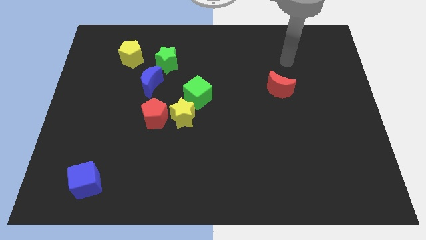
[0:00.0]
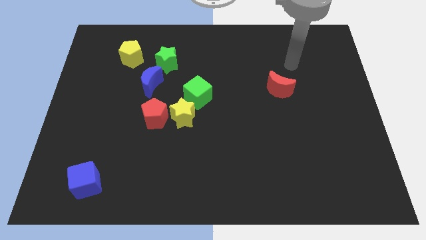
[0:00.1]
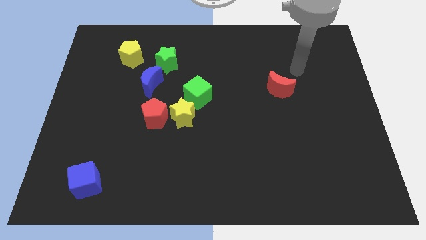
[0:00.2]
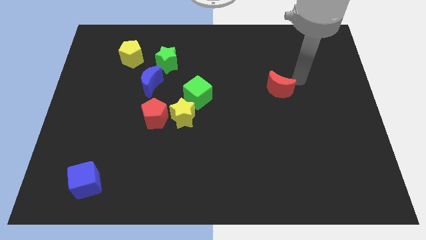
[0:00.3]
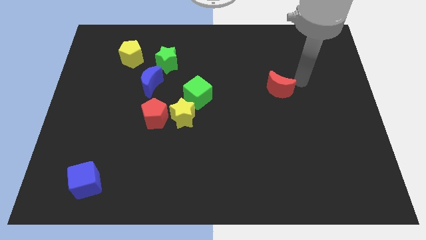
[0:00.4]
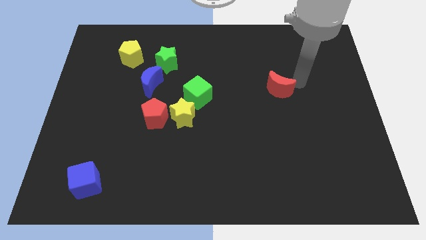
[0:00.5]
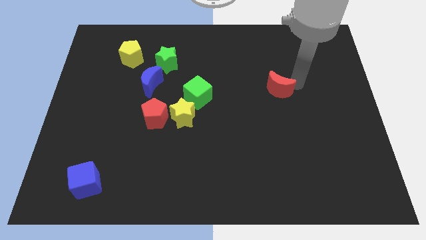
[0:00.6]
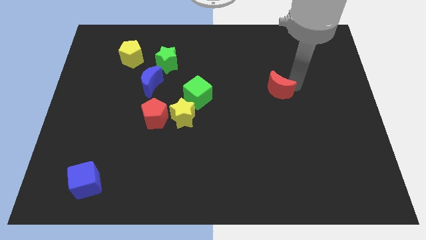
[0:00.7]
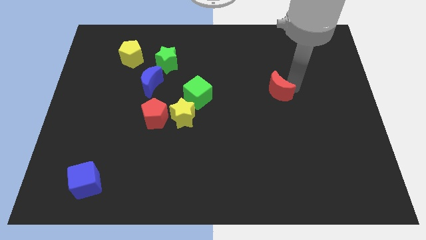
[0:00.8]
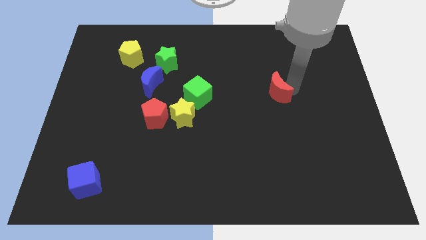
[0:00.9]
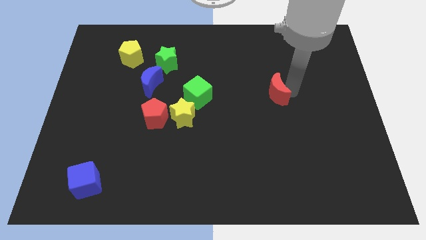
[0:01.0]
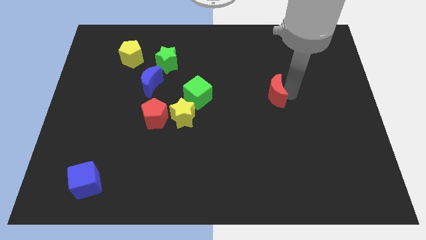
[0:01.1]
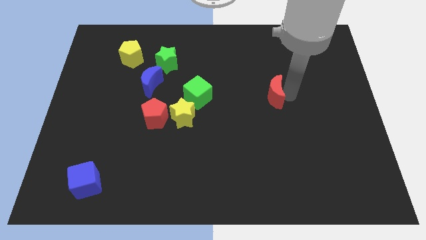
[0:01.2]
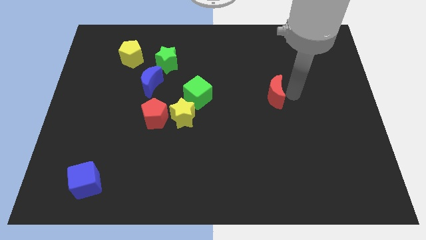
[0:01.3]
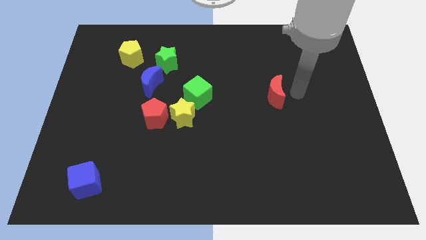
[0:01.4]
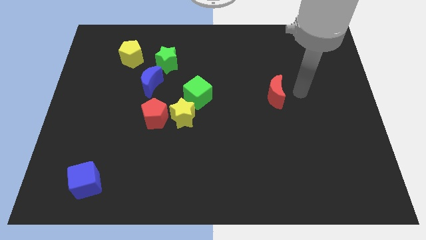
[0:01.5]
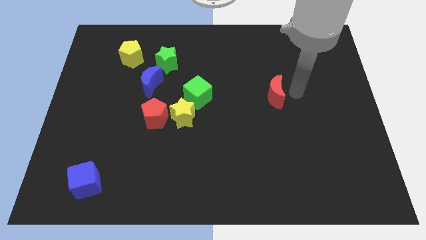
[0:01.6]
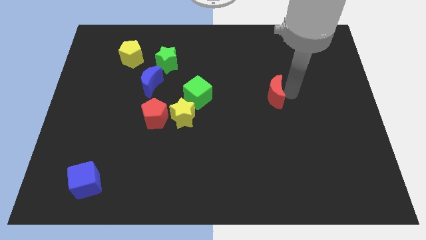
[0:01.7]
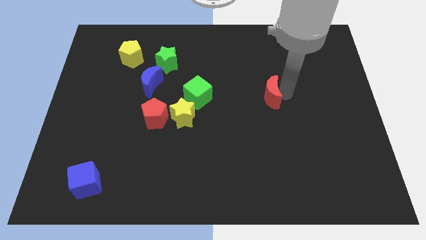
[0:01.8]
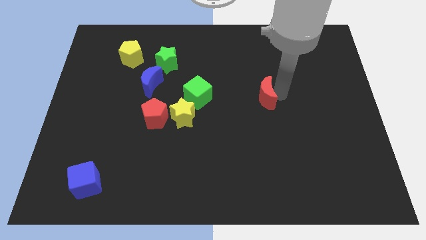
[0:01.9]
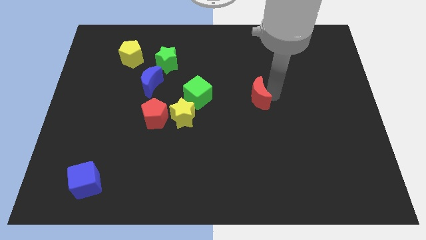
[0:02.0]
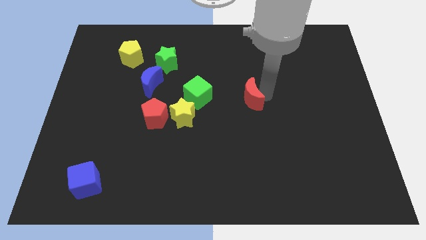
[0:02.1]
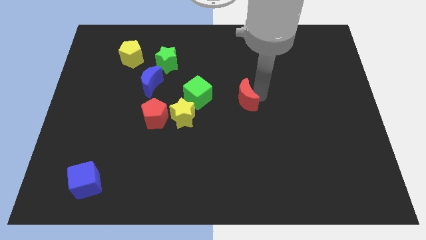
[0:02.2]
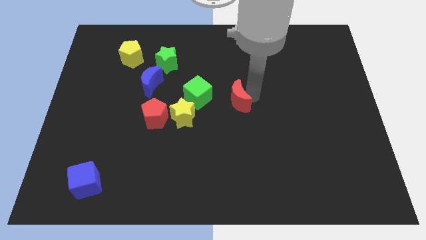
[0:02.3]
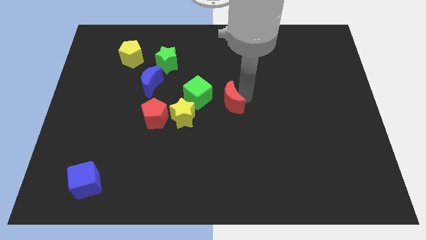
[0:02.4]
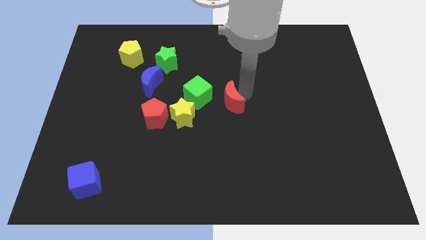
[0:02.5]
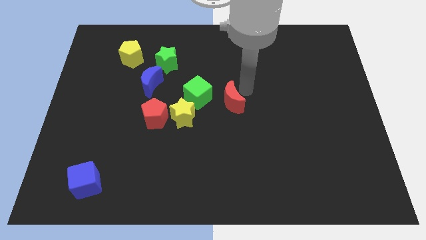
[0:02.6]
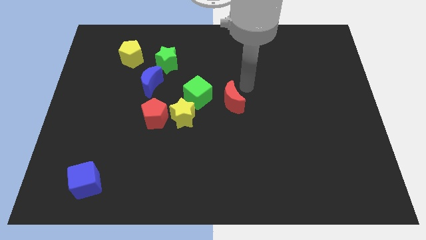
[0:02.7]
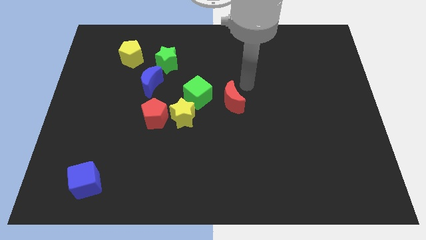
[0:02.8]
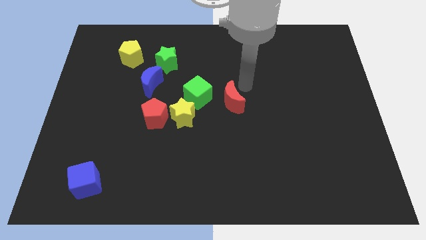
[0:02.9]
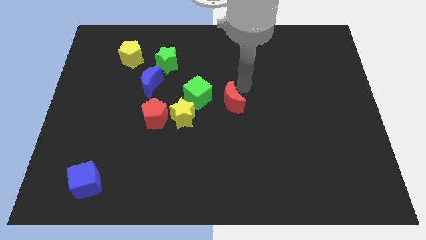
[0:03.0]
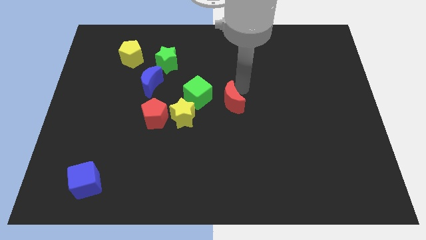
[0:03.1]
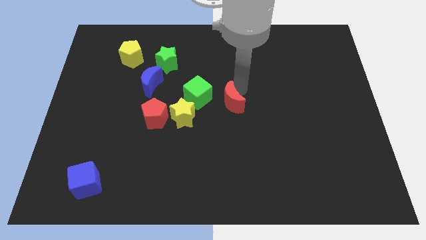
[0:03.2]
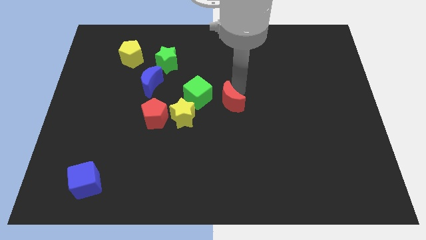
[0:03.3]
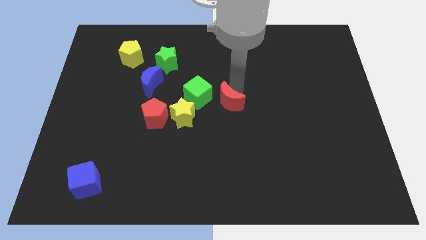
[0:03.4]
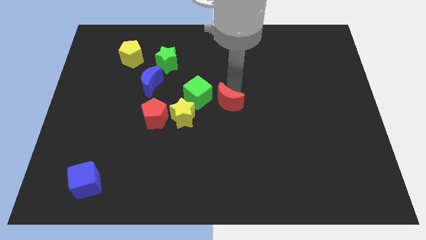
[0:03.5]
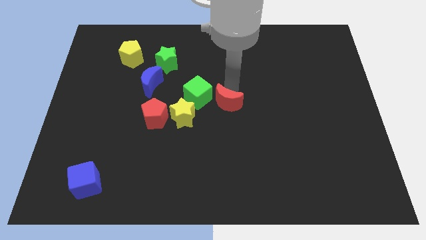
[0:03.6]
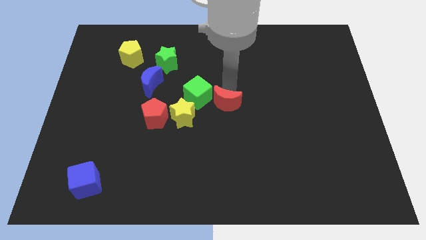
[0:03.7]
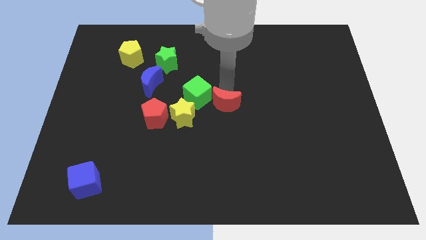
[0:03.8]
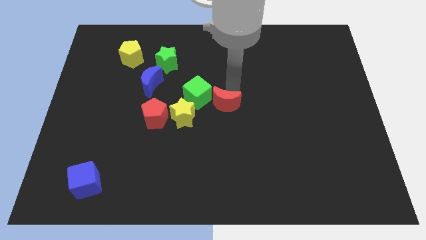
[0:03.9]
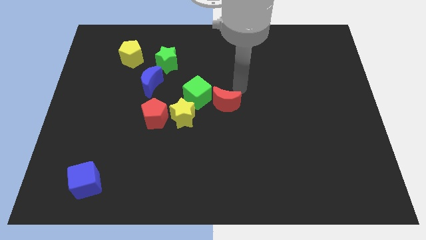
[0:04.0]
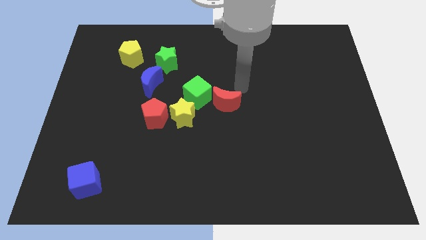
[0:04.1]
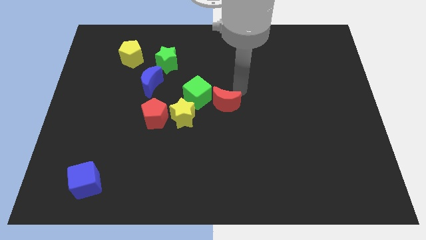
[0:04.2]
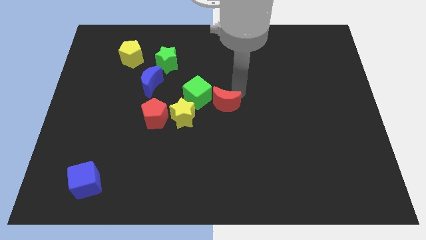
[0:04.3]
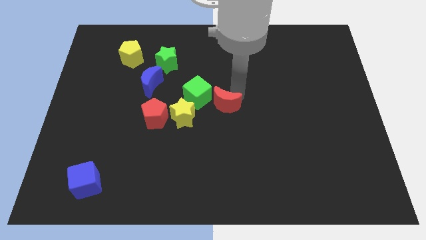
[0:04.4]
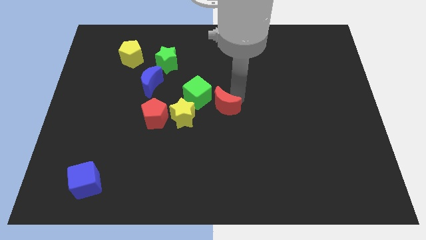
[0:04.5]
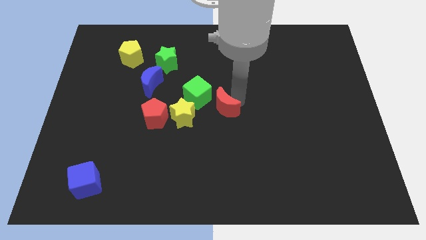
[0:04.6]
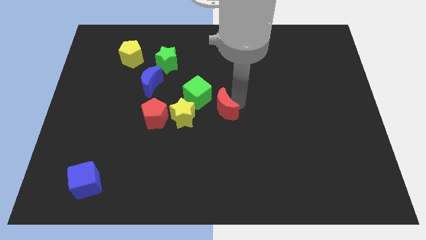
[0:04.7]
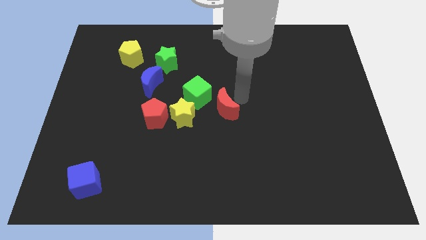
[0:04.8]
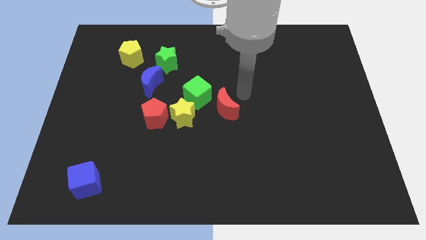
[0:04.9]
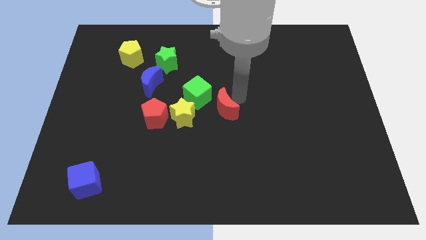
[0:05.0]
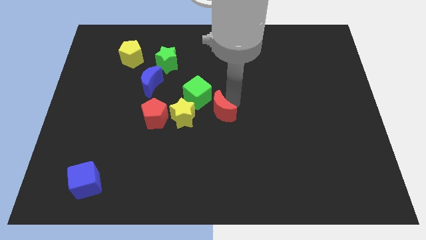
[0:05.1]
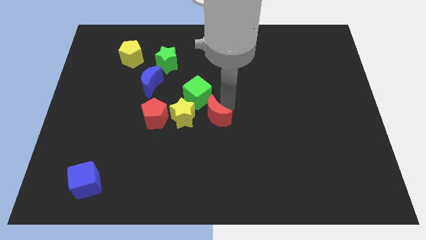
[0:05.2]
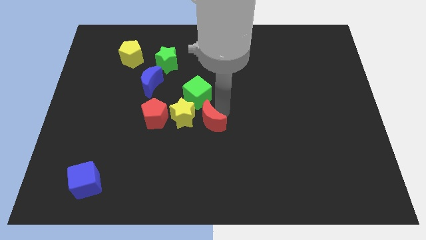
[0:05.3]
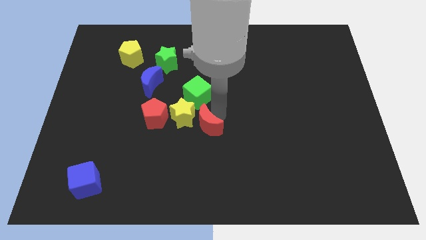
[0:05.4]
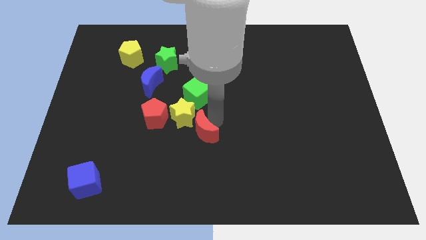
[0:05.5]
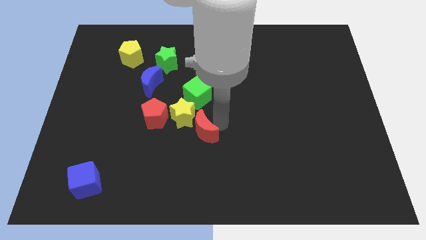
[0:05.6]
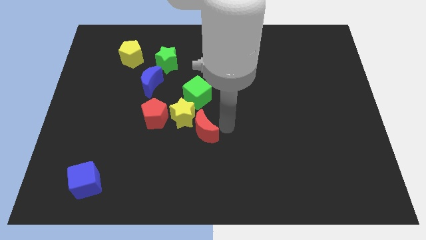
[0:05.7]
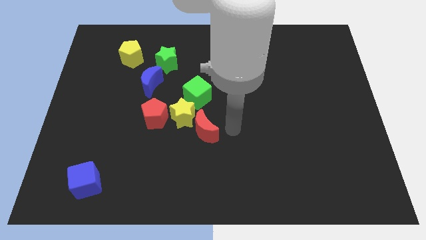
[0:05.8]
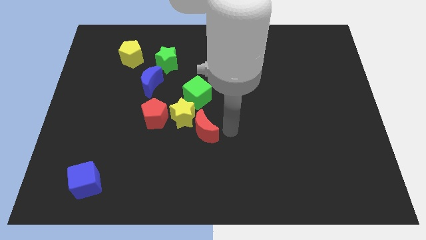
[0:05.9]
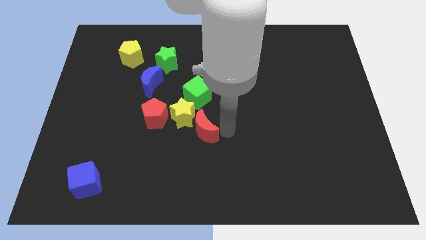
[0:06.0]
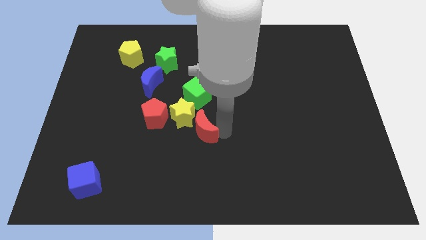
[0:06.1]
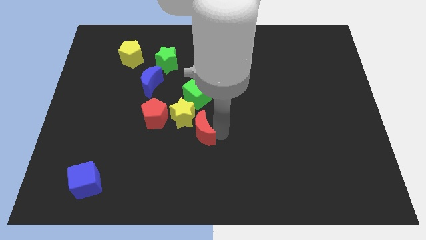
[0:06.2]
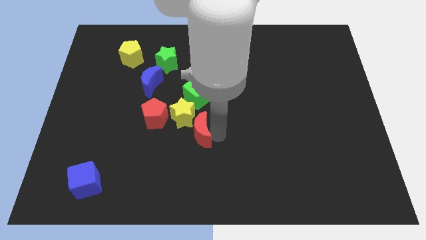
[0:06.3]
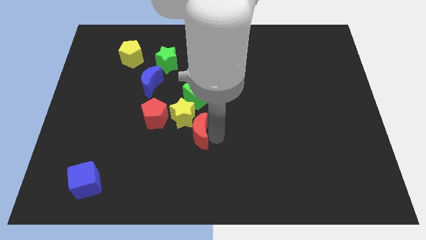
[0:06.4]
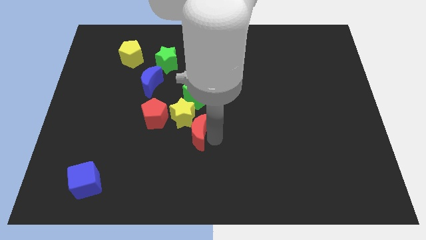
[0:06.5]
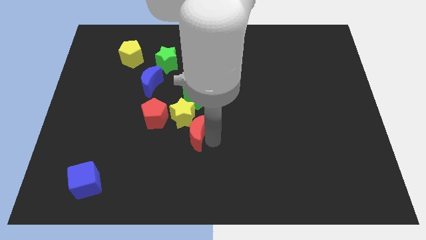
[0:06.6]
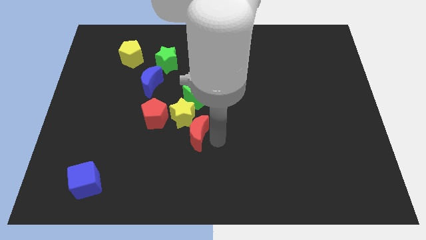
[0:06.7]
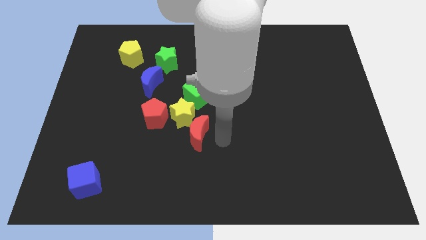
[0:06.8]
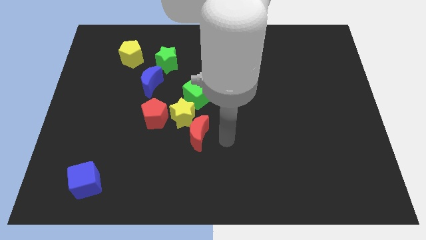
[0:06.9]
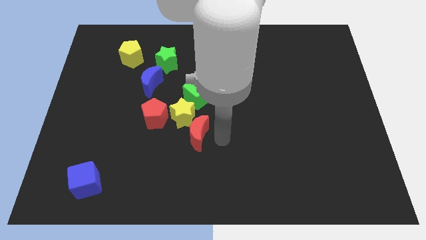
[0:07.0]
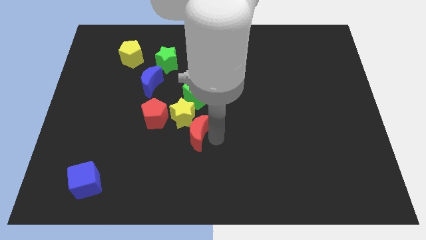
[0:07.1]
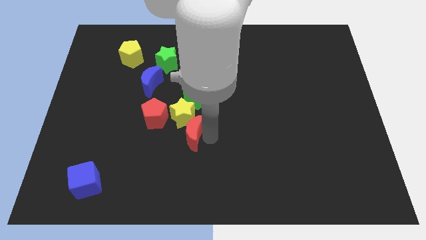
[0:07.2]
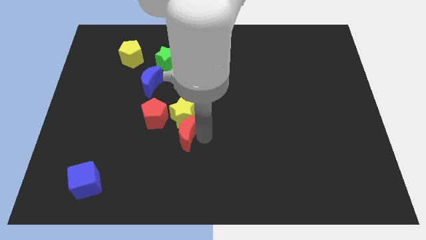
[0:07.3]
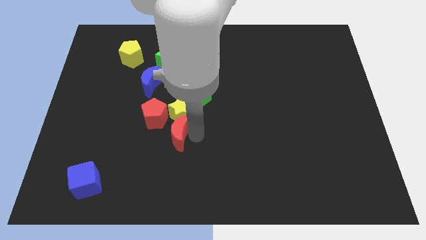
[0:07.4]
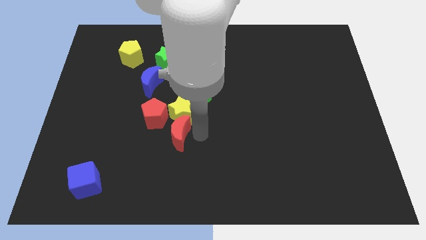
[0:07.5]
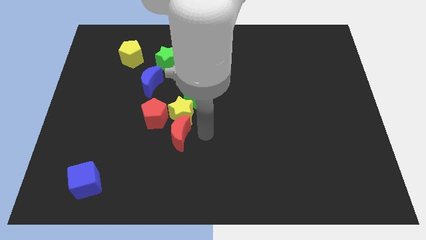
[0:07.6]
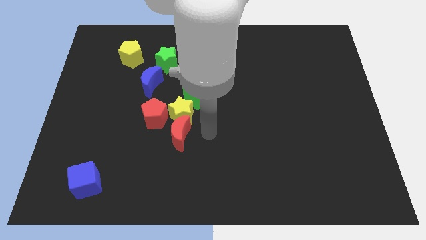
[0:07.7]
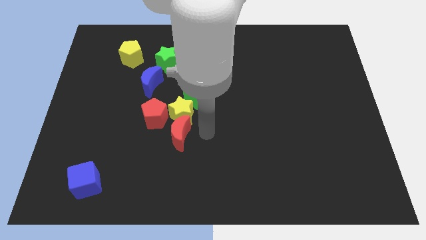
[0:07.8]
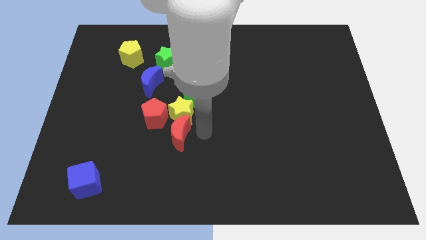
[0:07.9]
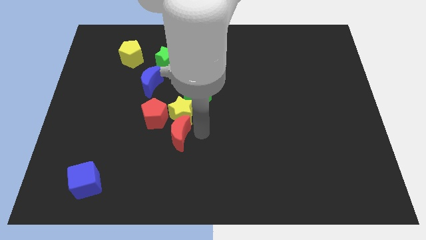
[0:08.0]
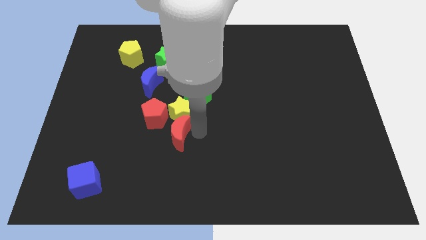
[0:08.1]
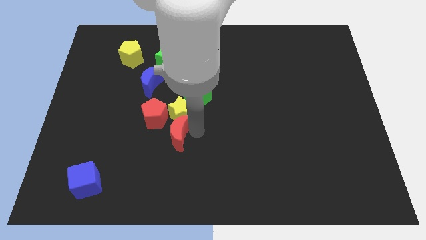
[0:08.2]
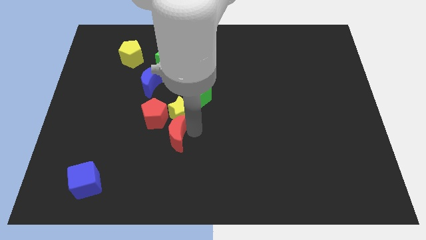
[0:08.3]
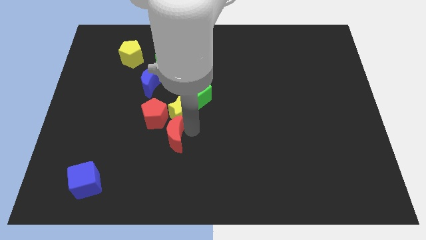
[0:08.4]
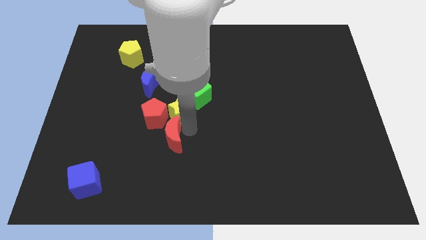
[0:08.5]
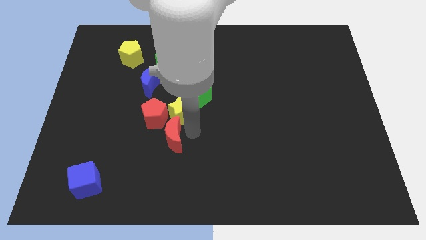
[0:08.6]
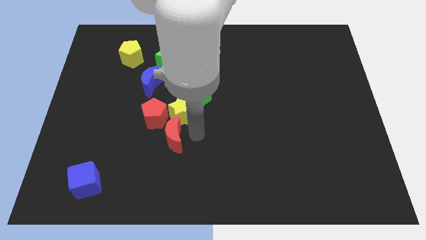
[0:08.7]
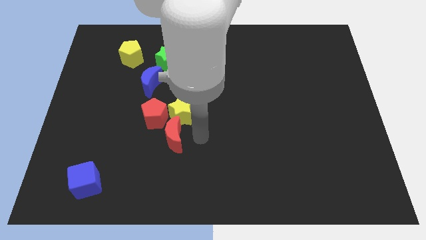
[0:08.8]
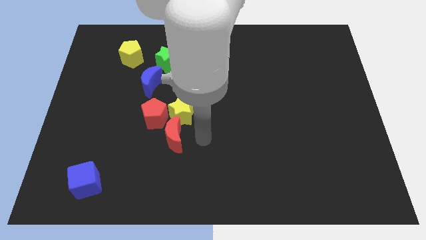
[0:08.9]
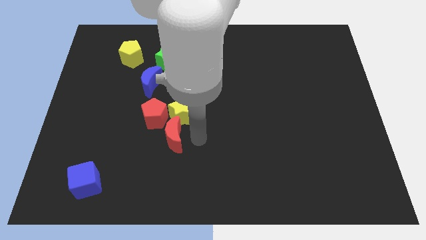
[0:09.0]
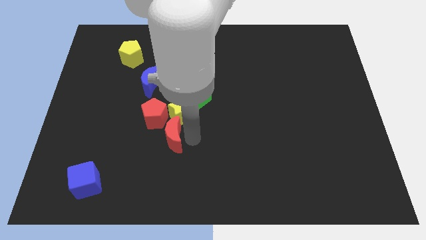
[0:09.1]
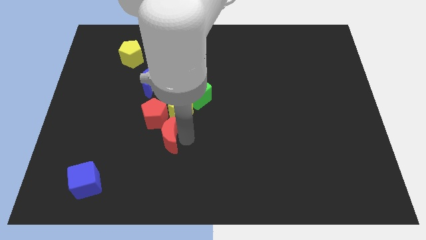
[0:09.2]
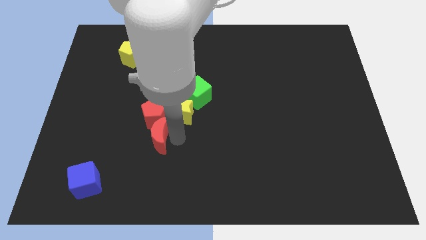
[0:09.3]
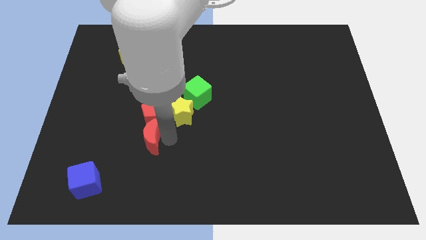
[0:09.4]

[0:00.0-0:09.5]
move the red moon to the bottom left side of the red pentagon
